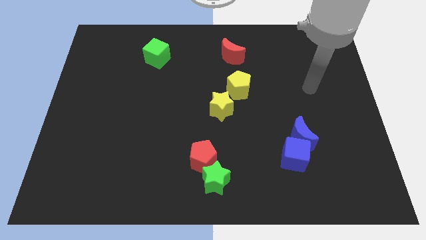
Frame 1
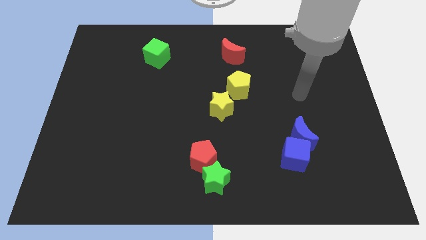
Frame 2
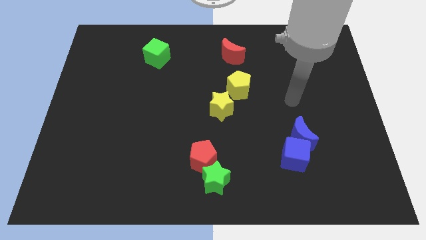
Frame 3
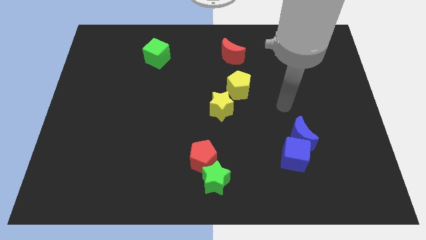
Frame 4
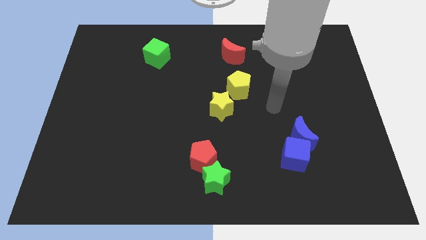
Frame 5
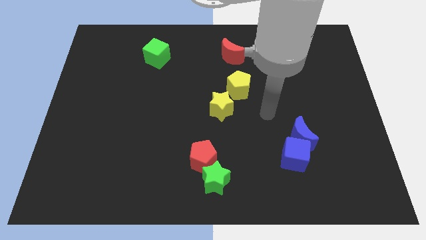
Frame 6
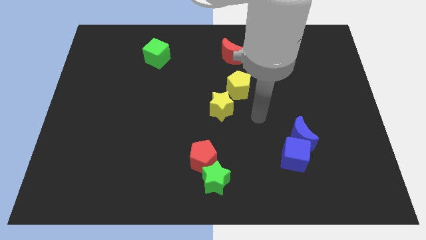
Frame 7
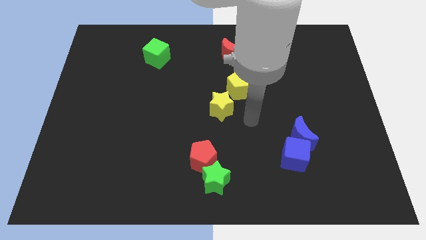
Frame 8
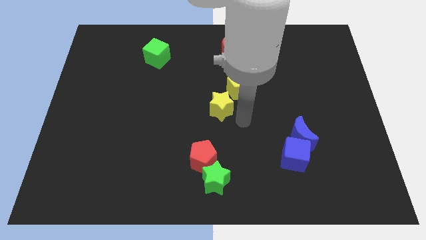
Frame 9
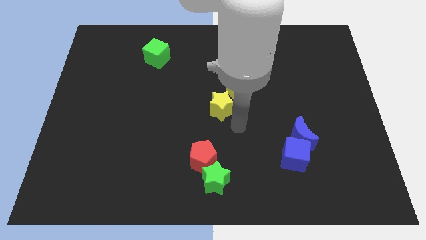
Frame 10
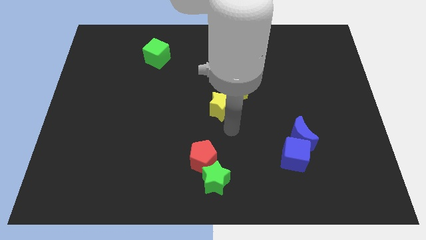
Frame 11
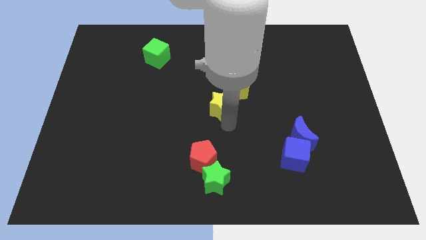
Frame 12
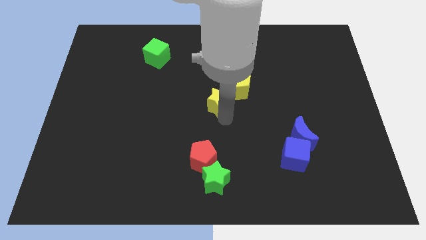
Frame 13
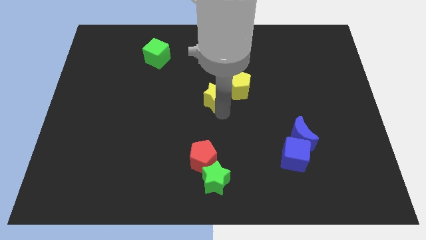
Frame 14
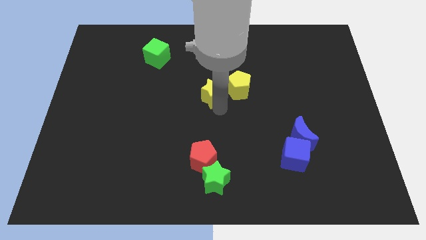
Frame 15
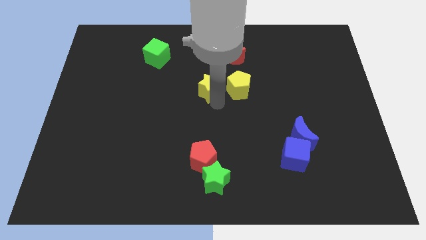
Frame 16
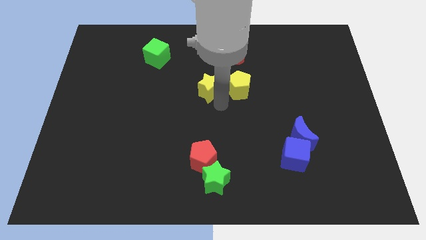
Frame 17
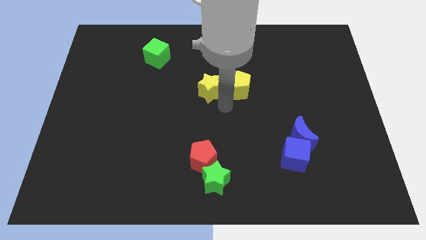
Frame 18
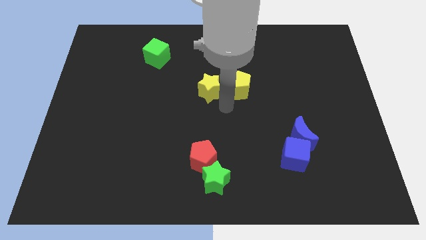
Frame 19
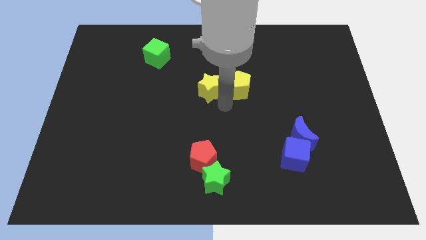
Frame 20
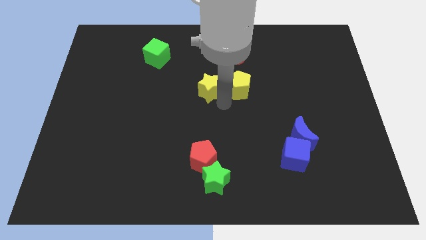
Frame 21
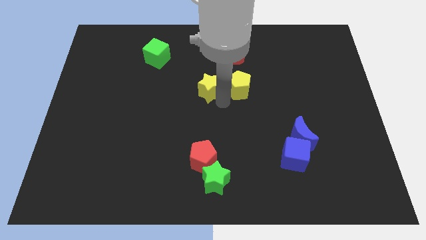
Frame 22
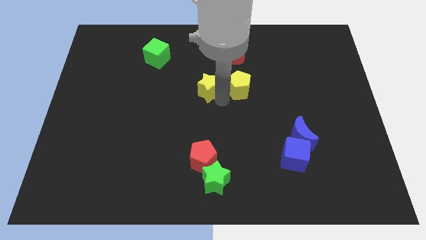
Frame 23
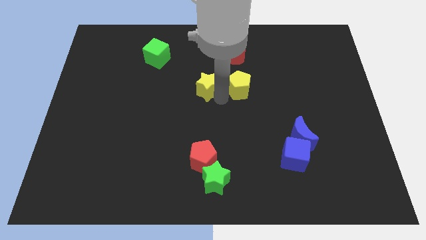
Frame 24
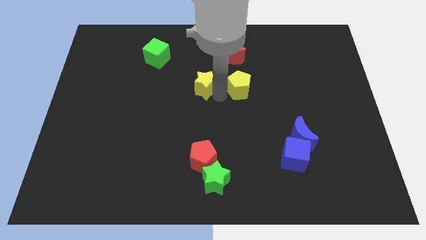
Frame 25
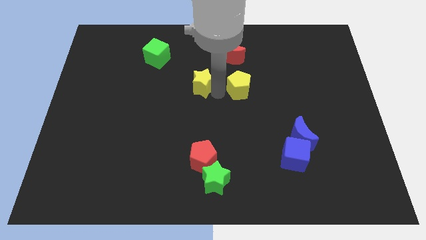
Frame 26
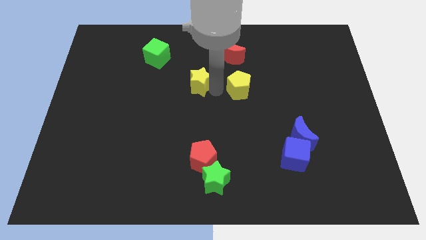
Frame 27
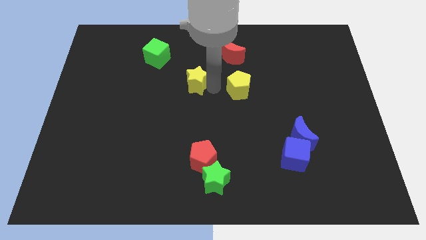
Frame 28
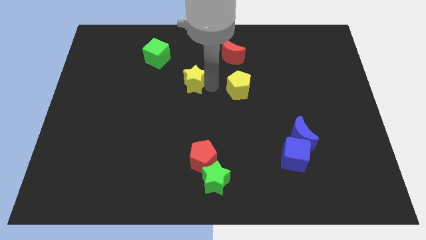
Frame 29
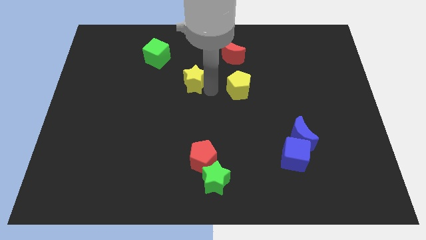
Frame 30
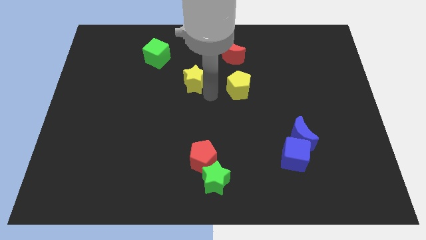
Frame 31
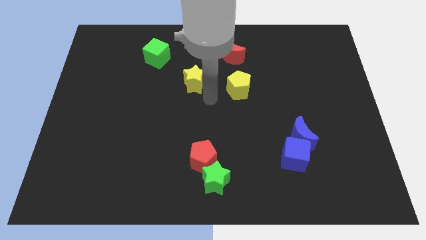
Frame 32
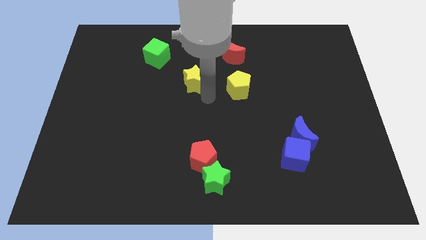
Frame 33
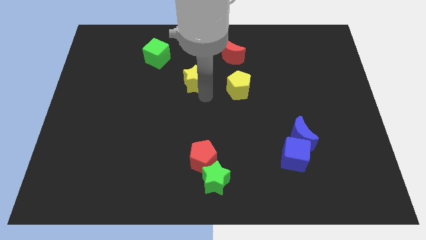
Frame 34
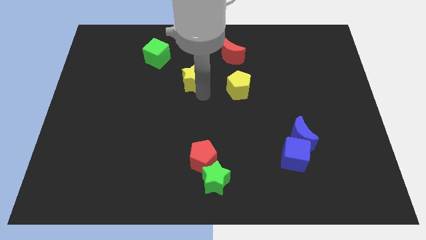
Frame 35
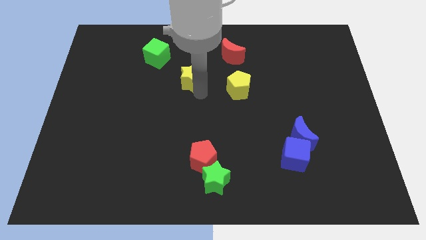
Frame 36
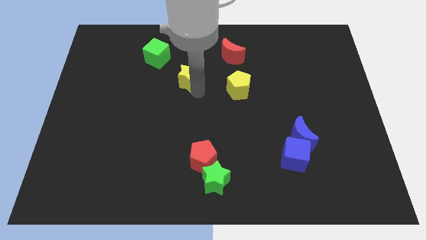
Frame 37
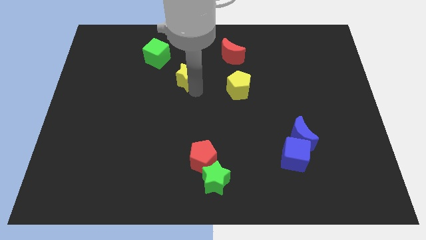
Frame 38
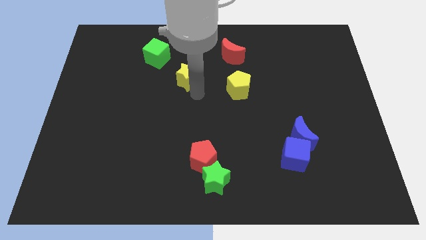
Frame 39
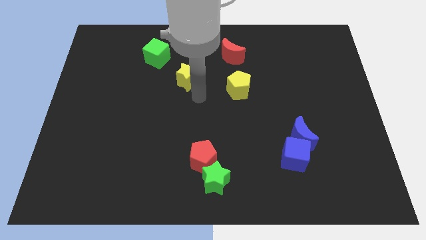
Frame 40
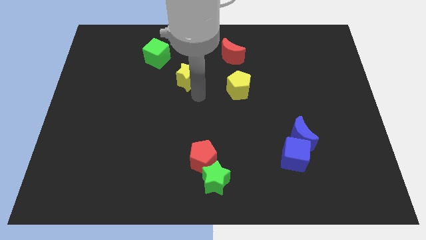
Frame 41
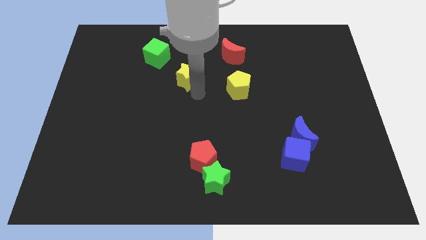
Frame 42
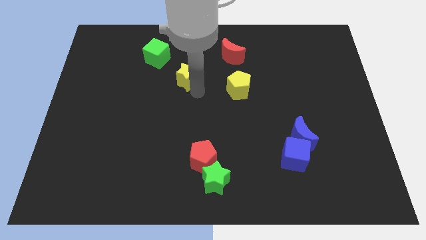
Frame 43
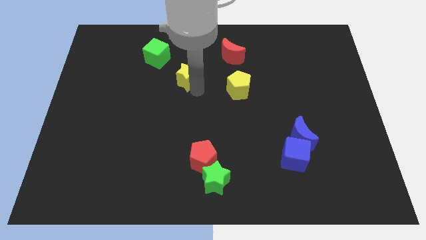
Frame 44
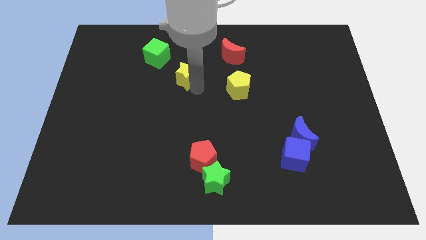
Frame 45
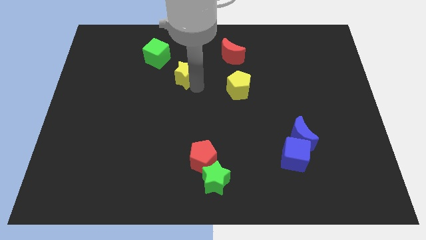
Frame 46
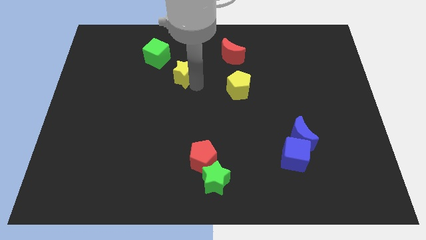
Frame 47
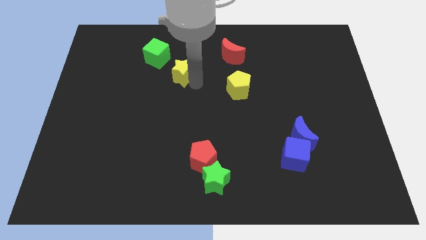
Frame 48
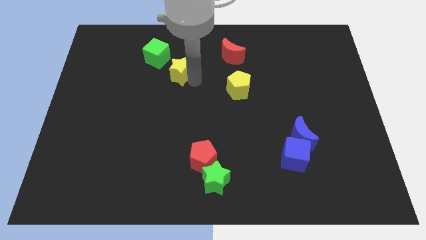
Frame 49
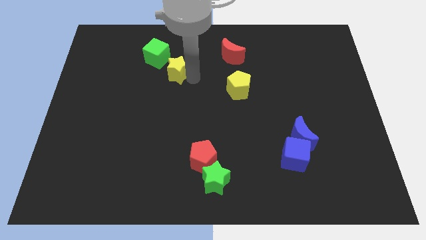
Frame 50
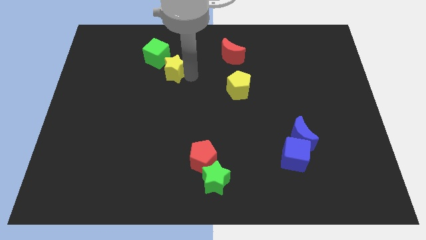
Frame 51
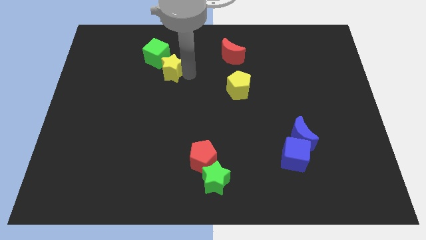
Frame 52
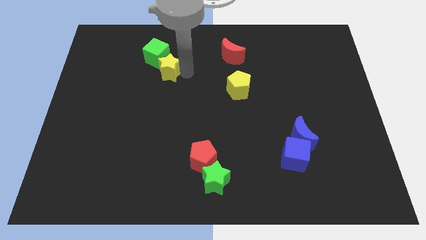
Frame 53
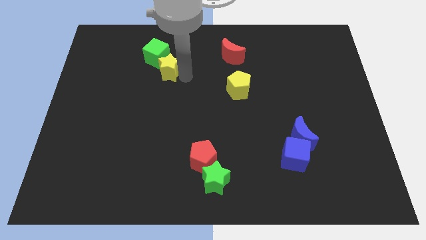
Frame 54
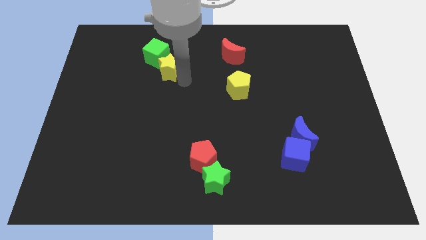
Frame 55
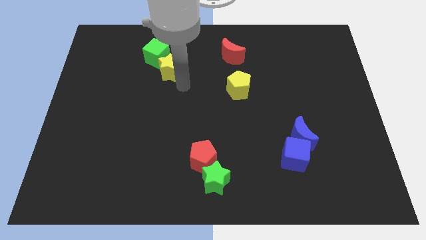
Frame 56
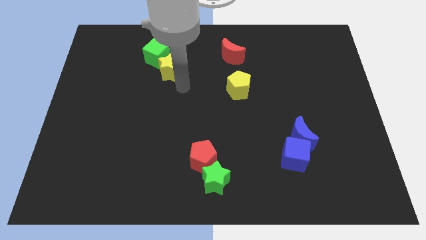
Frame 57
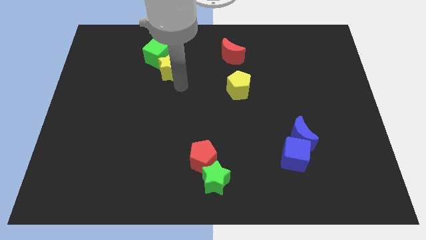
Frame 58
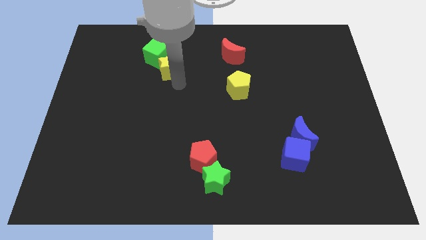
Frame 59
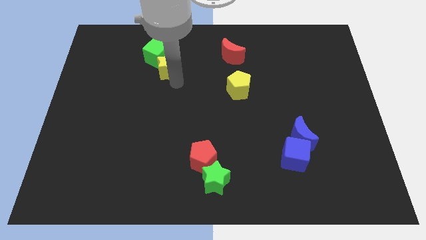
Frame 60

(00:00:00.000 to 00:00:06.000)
put the yellow star close to the green cube
